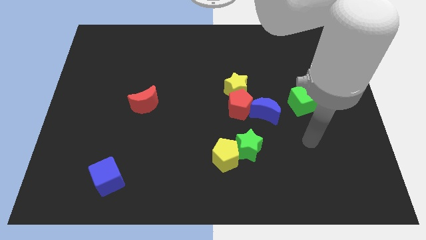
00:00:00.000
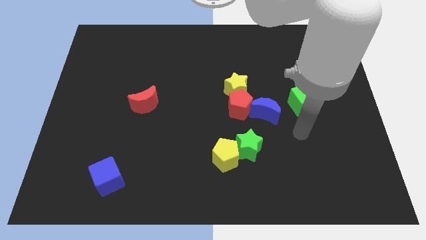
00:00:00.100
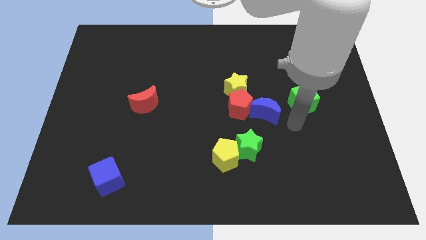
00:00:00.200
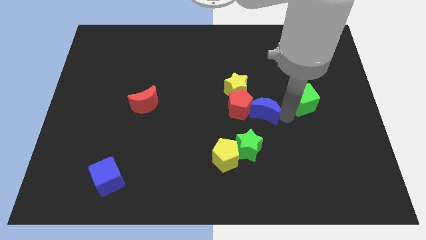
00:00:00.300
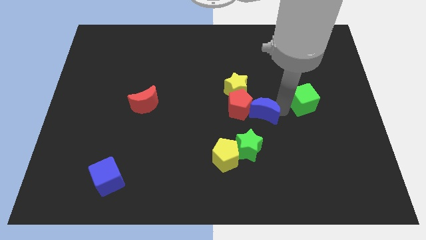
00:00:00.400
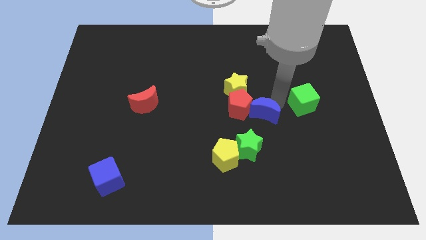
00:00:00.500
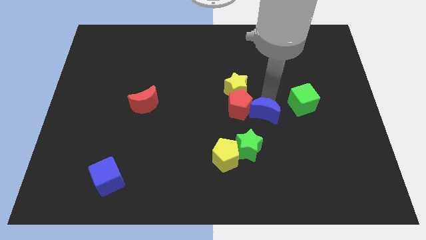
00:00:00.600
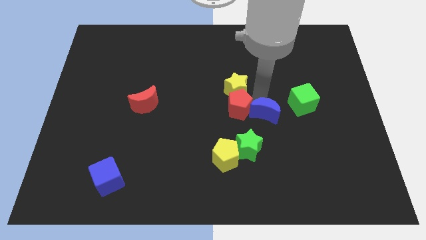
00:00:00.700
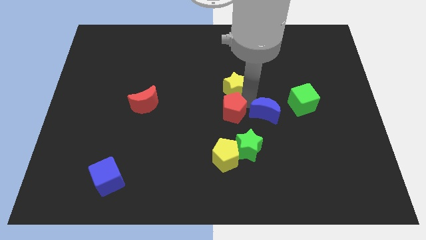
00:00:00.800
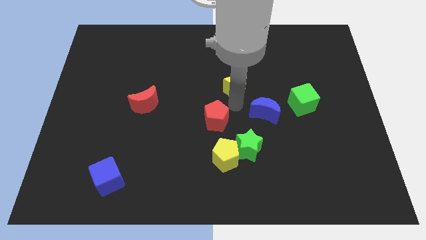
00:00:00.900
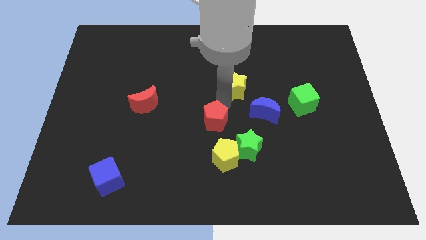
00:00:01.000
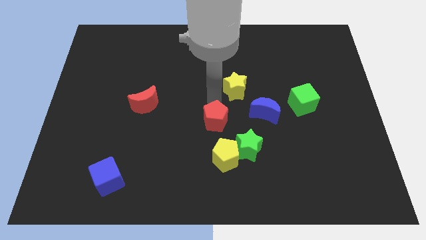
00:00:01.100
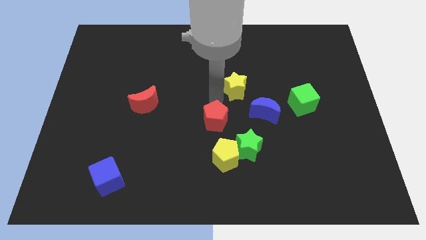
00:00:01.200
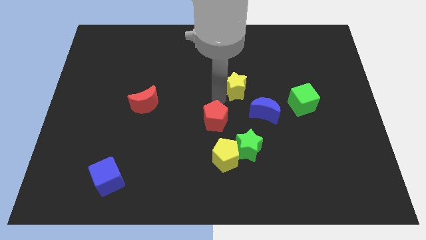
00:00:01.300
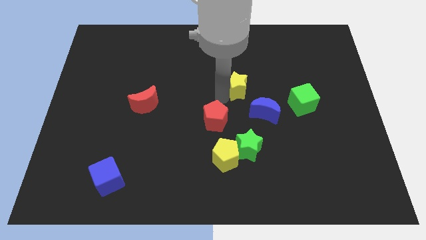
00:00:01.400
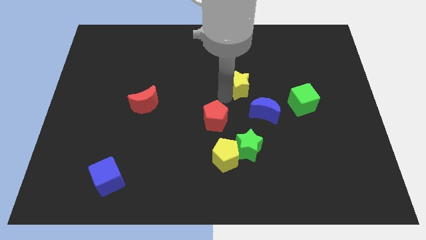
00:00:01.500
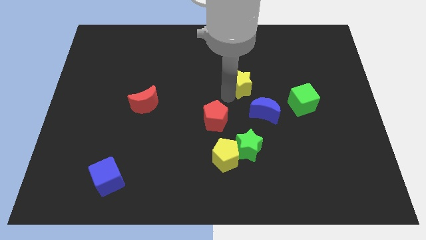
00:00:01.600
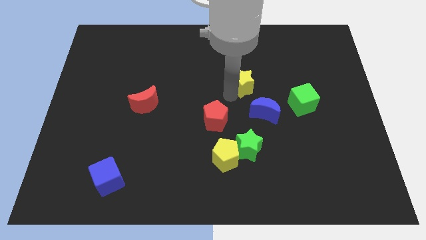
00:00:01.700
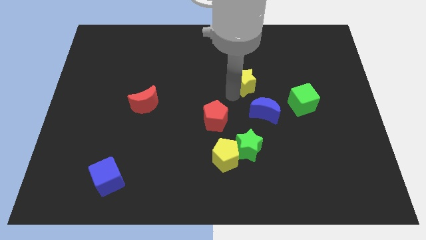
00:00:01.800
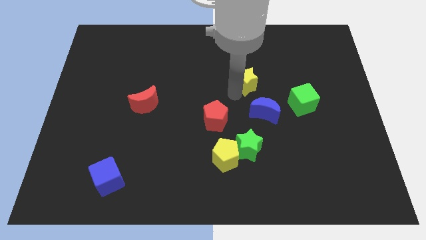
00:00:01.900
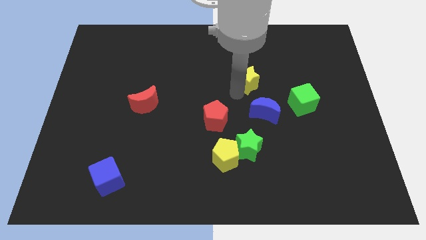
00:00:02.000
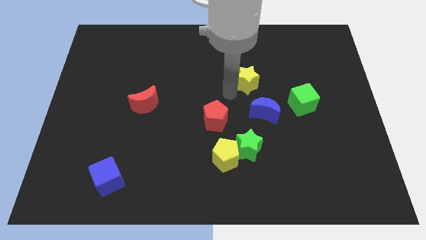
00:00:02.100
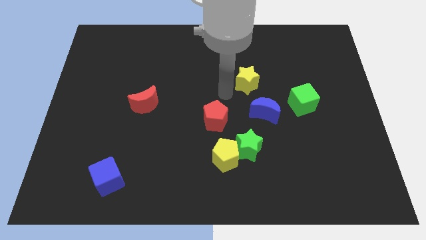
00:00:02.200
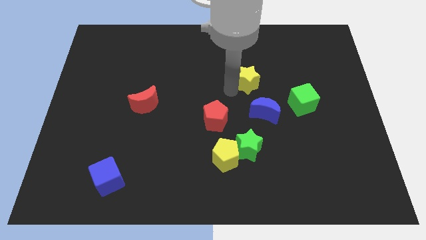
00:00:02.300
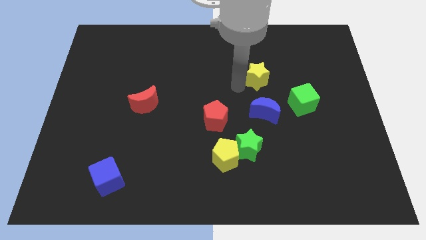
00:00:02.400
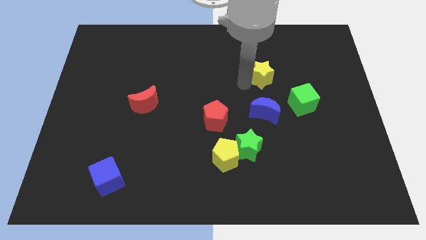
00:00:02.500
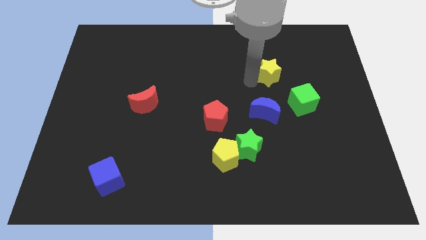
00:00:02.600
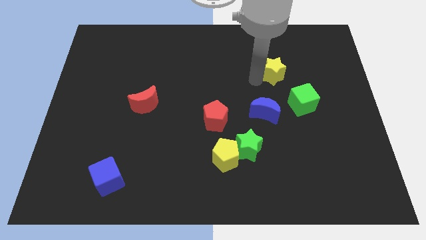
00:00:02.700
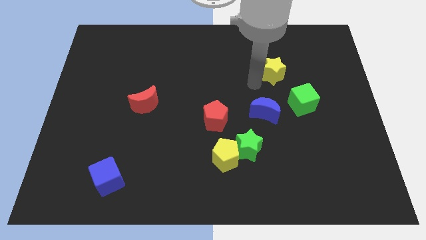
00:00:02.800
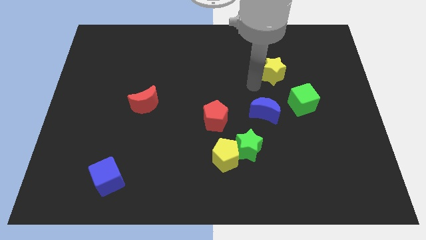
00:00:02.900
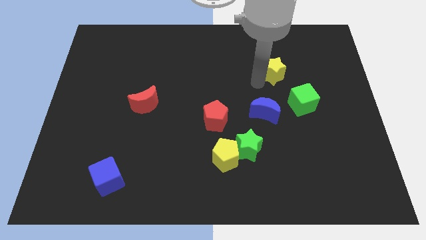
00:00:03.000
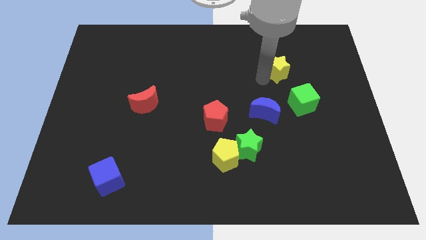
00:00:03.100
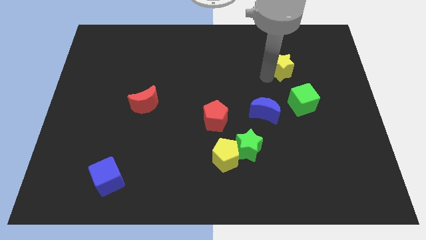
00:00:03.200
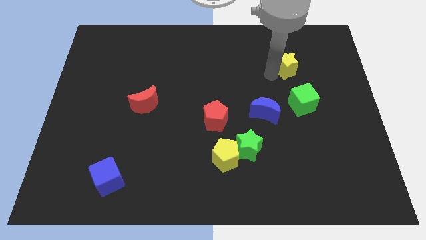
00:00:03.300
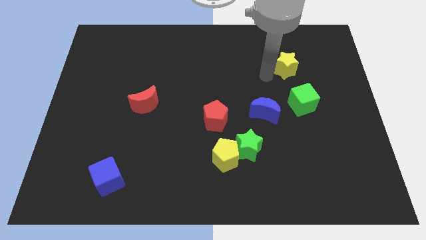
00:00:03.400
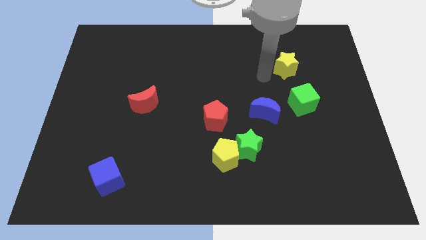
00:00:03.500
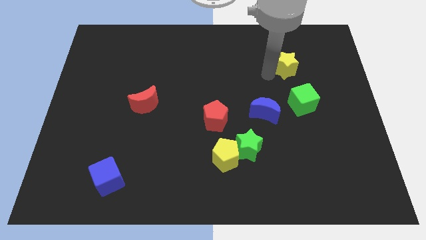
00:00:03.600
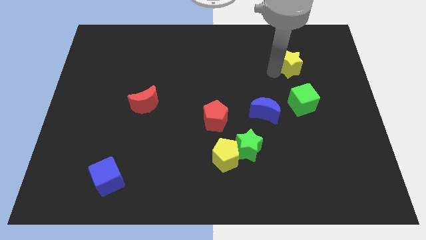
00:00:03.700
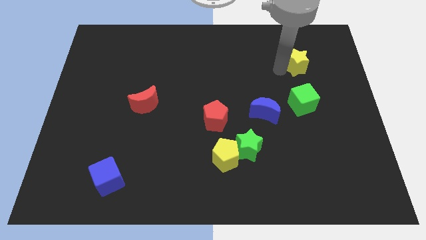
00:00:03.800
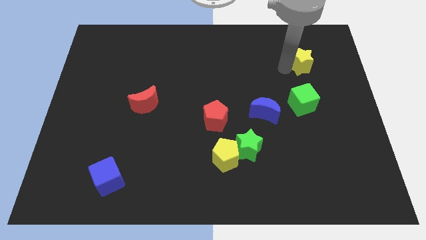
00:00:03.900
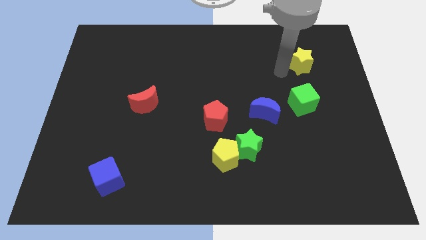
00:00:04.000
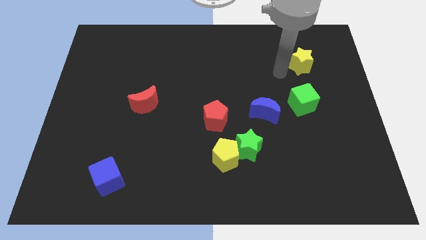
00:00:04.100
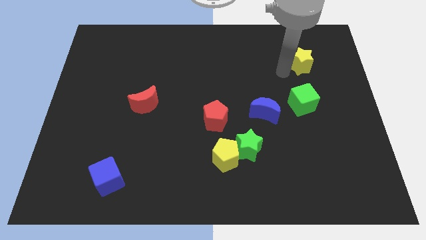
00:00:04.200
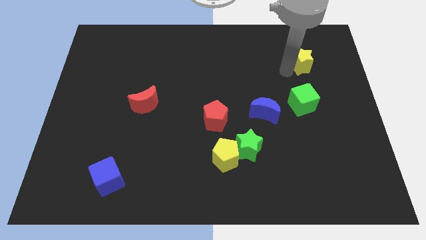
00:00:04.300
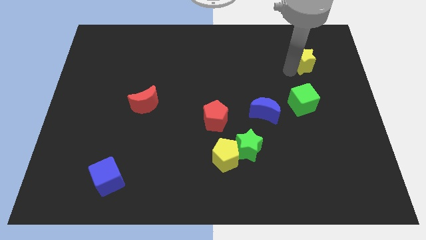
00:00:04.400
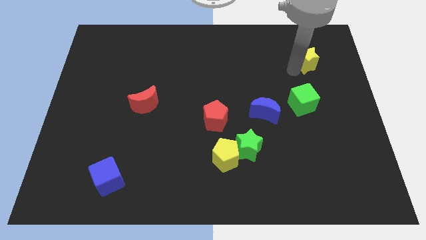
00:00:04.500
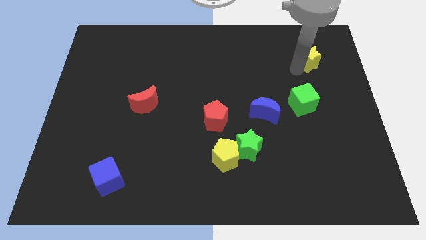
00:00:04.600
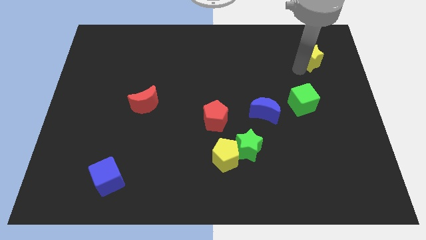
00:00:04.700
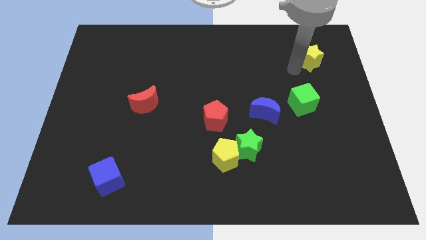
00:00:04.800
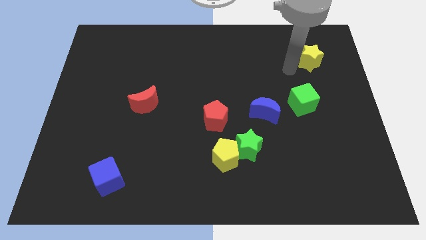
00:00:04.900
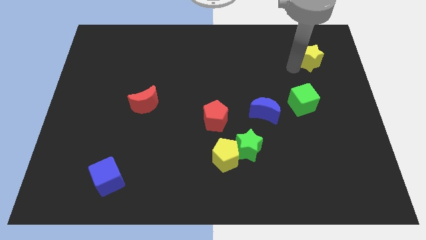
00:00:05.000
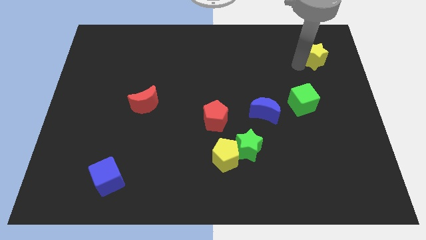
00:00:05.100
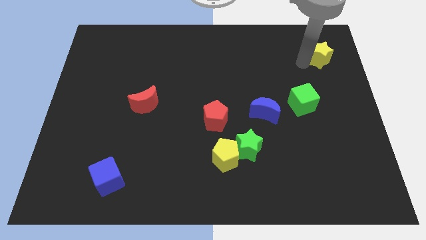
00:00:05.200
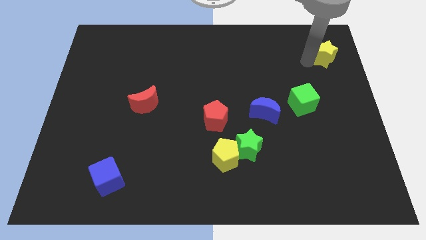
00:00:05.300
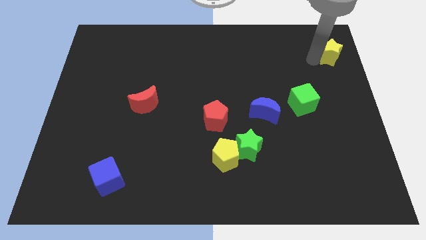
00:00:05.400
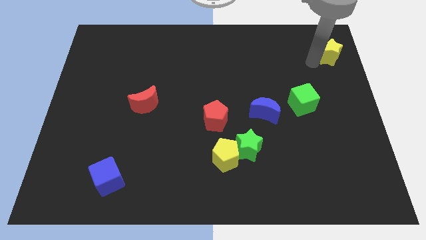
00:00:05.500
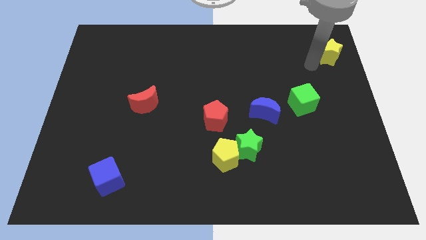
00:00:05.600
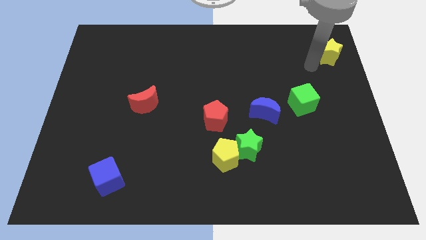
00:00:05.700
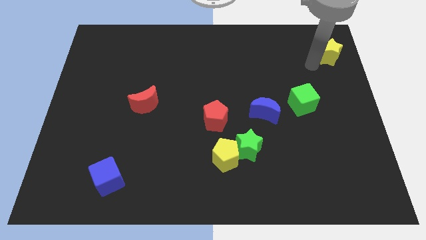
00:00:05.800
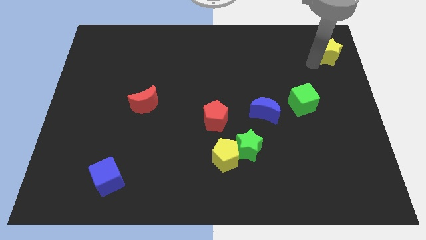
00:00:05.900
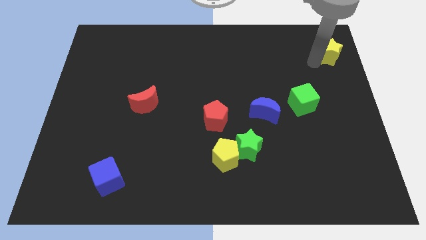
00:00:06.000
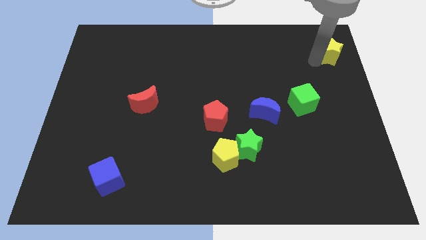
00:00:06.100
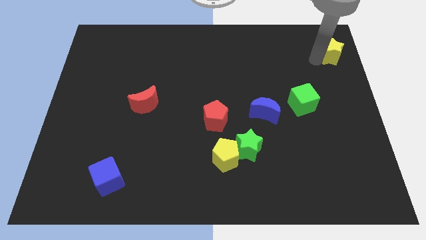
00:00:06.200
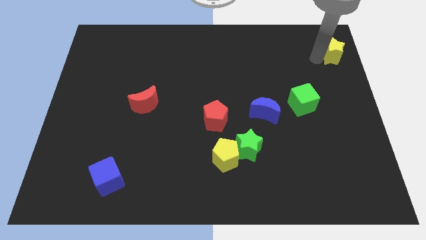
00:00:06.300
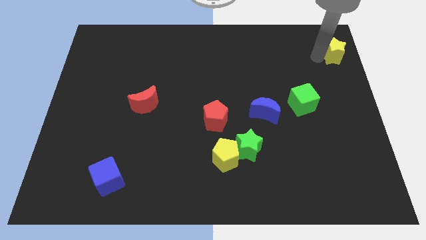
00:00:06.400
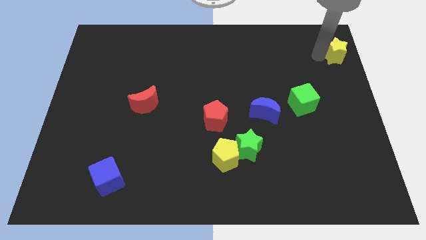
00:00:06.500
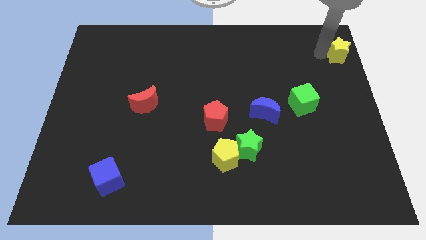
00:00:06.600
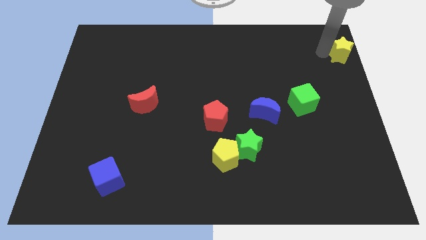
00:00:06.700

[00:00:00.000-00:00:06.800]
put the yellow star to the top right of the board

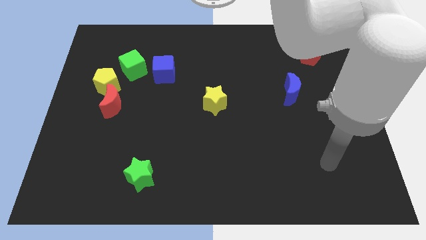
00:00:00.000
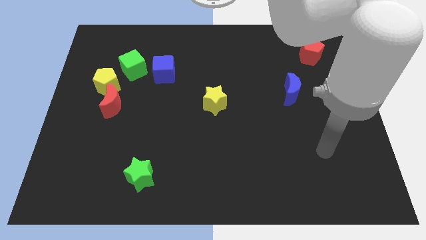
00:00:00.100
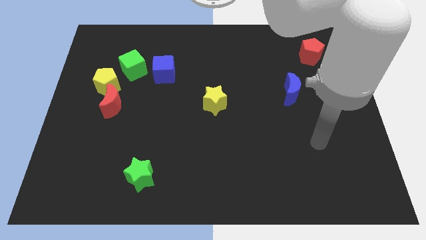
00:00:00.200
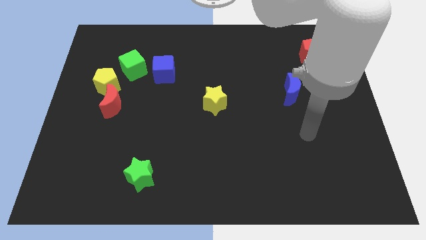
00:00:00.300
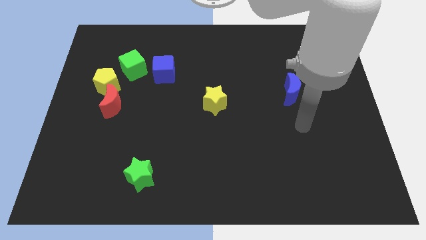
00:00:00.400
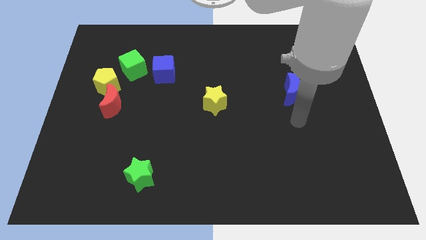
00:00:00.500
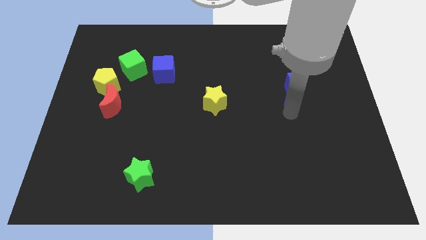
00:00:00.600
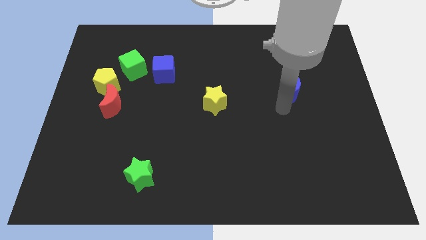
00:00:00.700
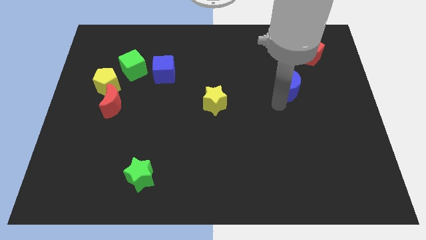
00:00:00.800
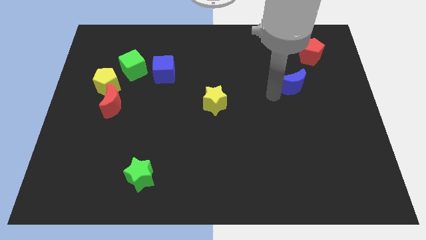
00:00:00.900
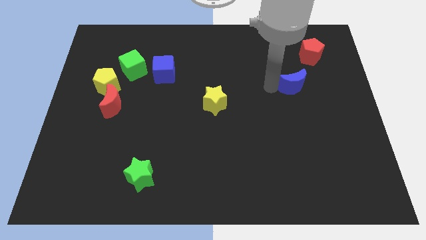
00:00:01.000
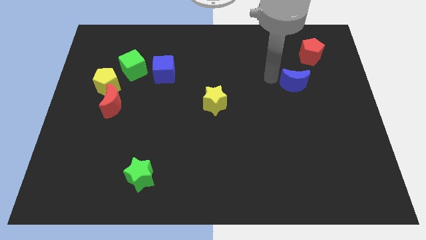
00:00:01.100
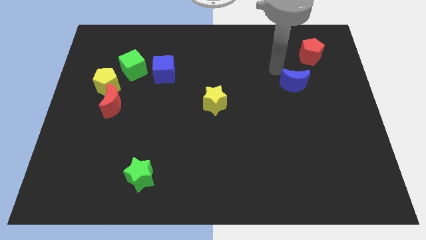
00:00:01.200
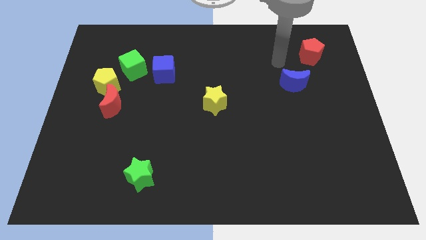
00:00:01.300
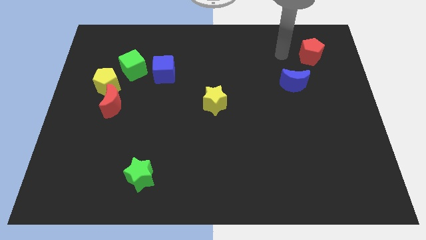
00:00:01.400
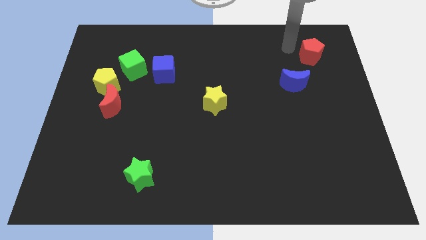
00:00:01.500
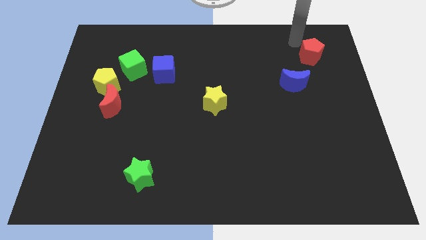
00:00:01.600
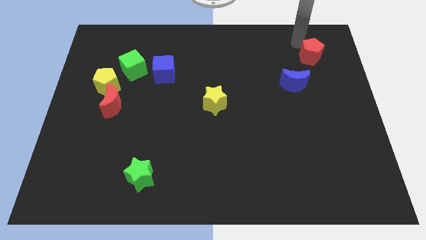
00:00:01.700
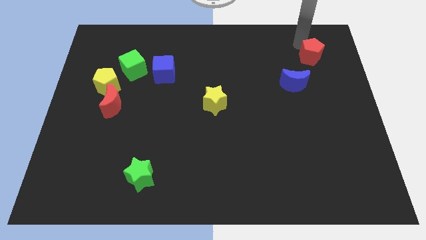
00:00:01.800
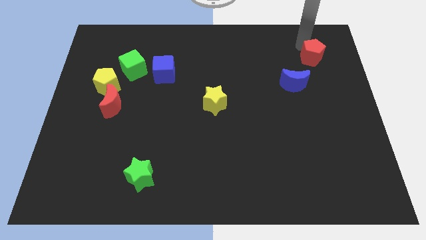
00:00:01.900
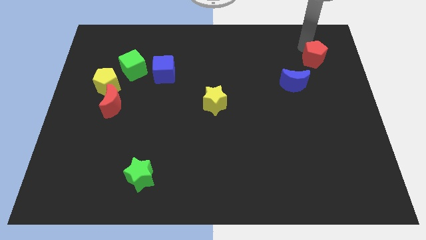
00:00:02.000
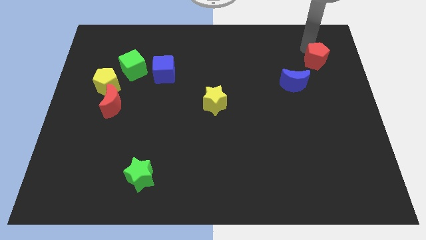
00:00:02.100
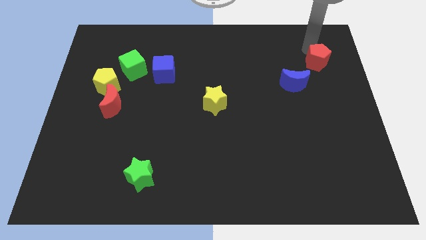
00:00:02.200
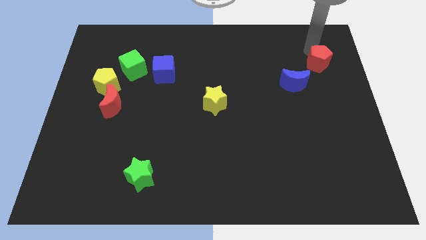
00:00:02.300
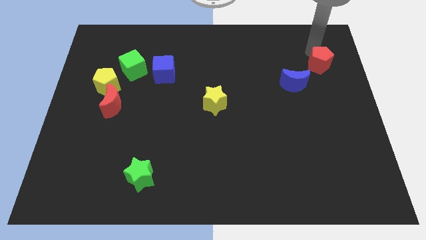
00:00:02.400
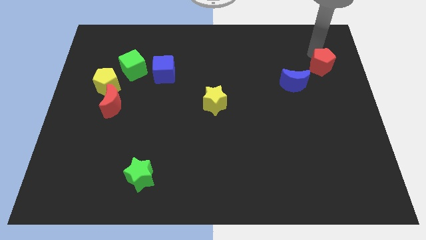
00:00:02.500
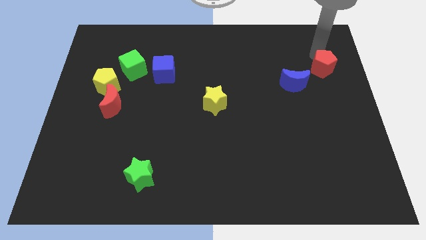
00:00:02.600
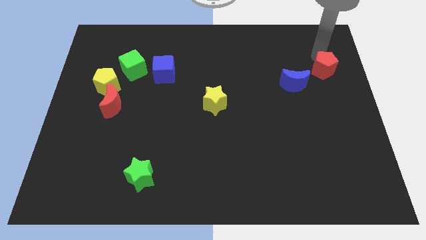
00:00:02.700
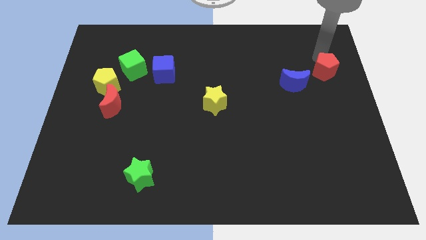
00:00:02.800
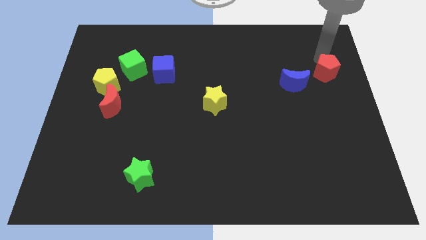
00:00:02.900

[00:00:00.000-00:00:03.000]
put the red pentagon to the right side
